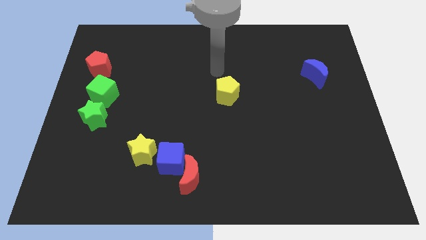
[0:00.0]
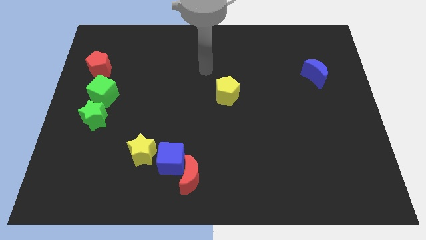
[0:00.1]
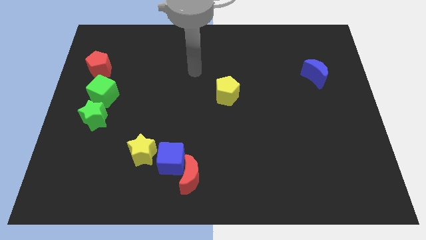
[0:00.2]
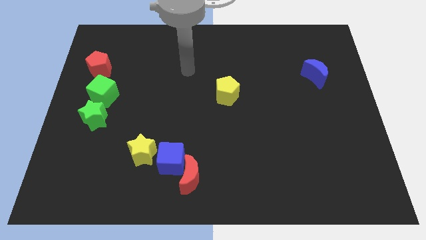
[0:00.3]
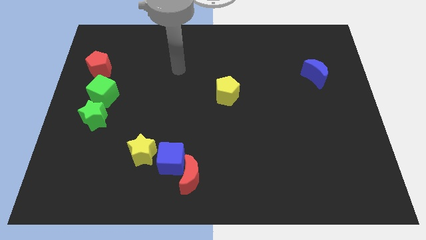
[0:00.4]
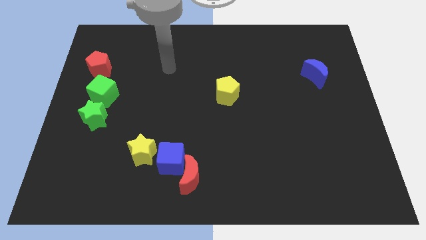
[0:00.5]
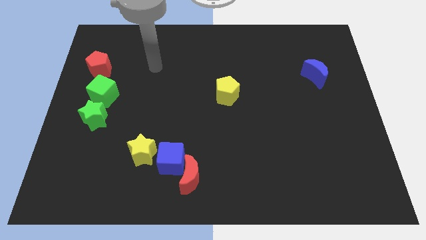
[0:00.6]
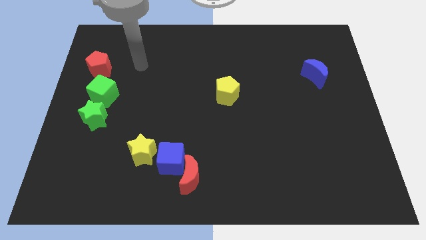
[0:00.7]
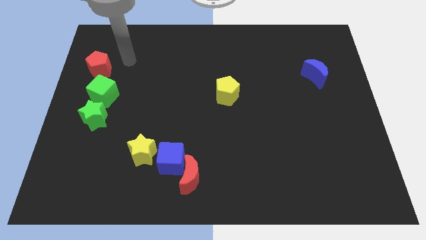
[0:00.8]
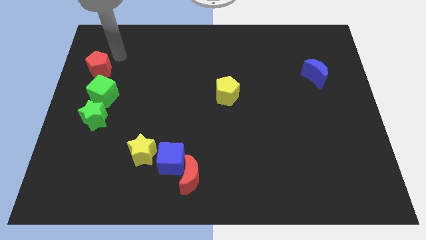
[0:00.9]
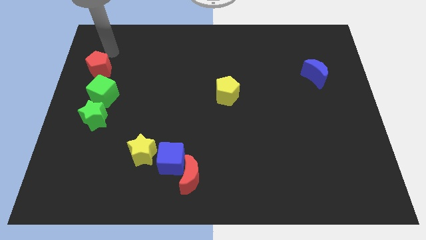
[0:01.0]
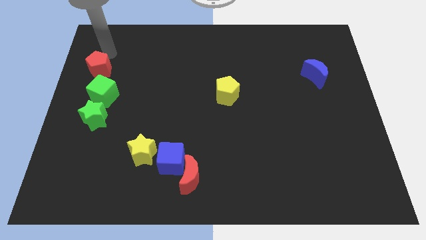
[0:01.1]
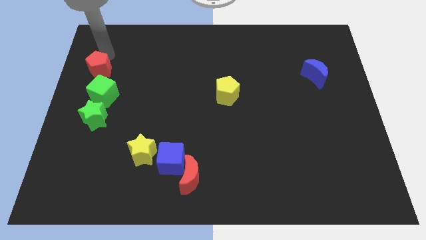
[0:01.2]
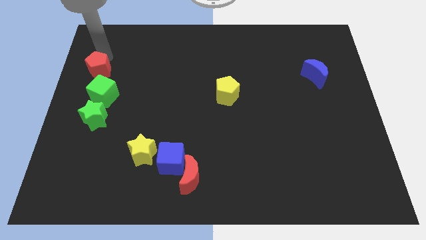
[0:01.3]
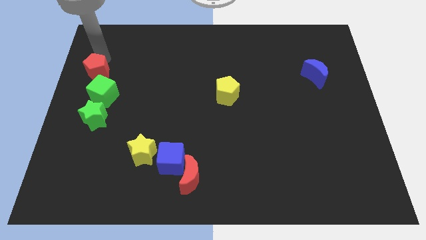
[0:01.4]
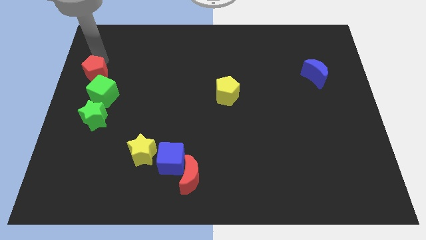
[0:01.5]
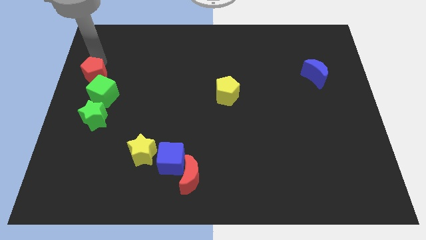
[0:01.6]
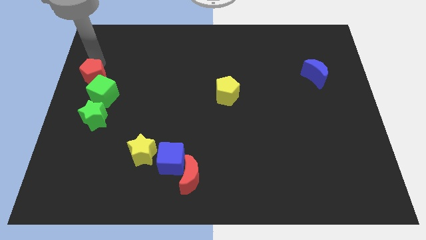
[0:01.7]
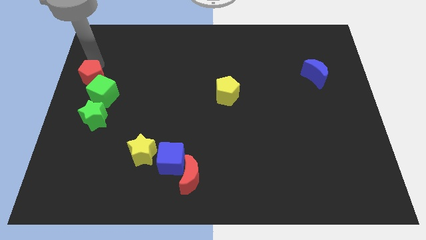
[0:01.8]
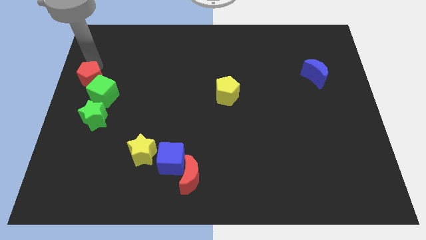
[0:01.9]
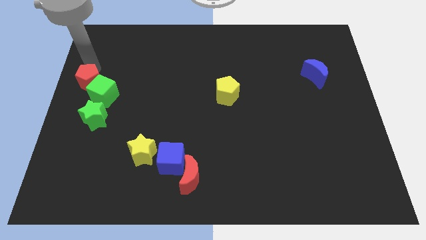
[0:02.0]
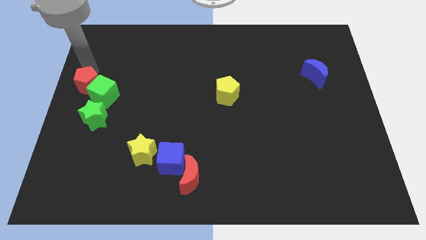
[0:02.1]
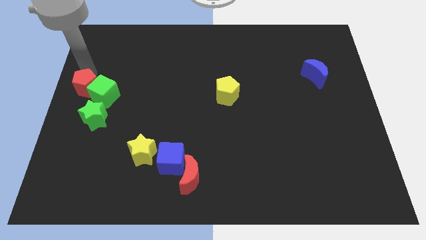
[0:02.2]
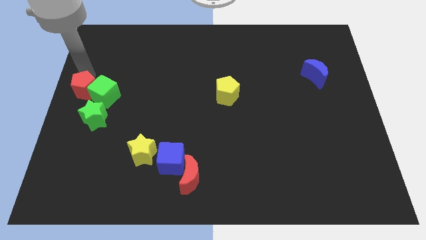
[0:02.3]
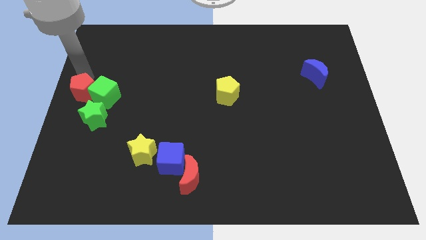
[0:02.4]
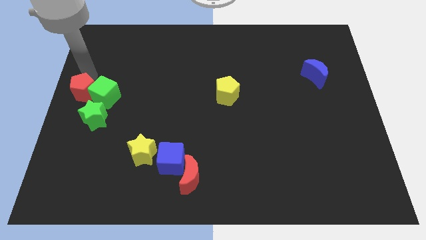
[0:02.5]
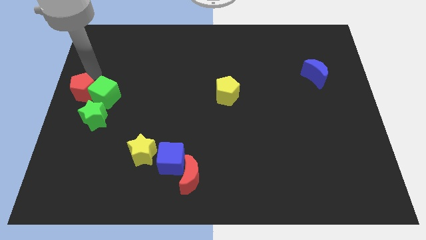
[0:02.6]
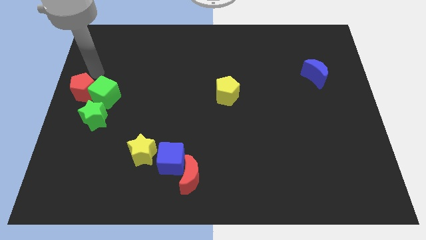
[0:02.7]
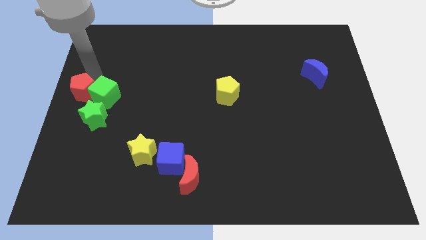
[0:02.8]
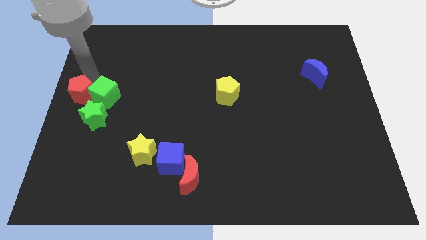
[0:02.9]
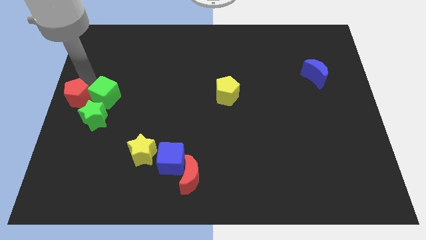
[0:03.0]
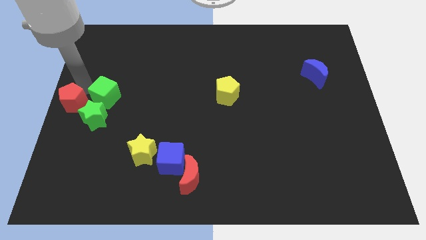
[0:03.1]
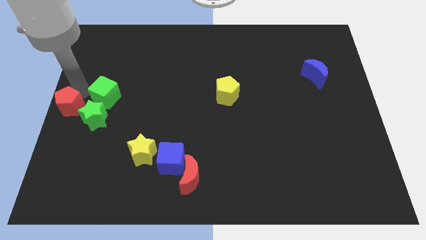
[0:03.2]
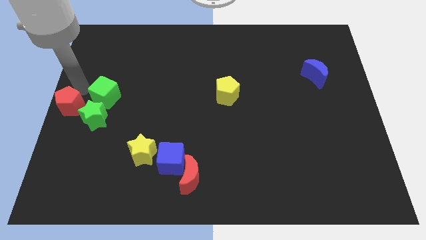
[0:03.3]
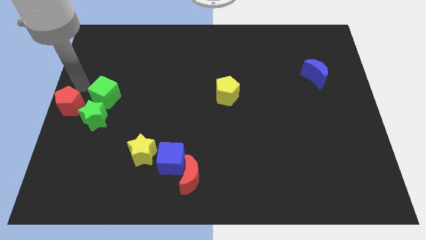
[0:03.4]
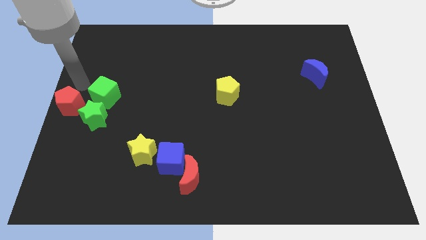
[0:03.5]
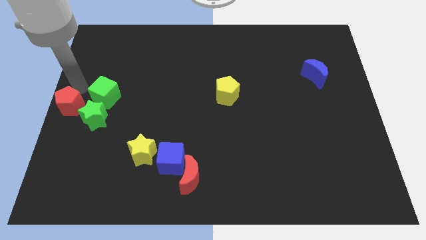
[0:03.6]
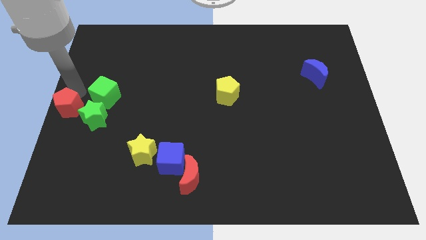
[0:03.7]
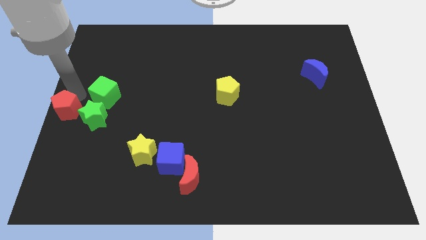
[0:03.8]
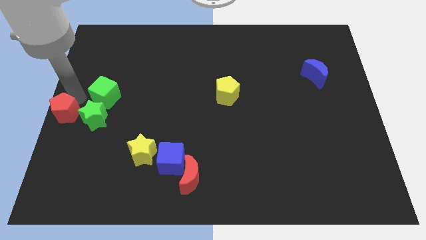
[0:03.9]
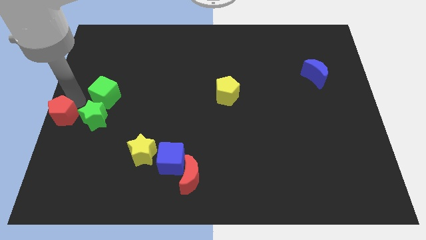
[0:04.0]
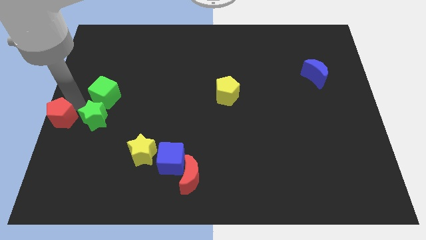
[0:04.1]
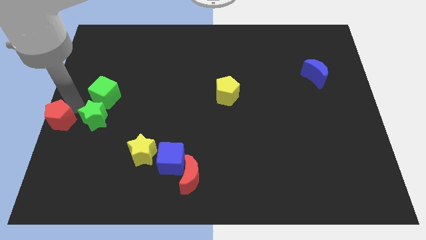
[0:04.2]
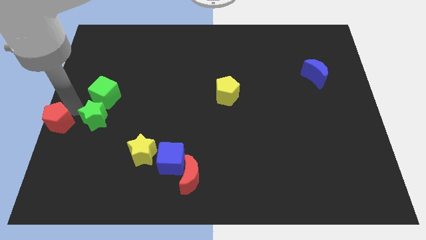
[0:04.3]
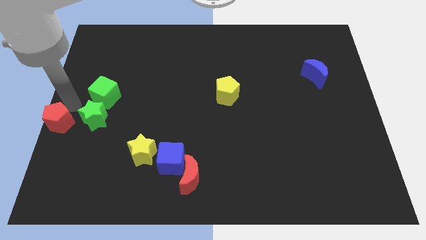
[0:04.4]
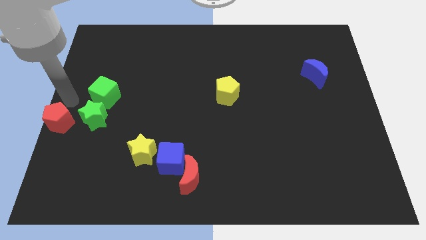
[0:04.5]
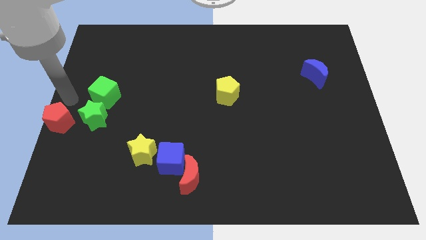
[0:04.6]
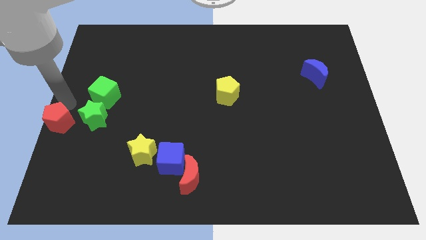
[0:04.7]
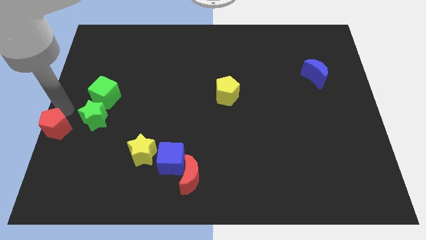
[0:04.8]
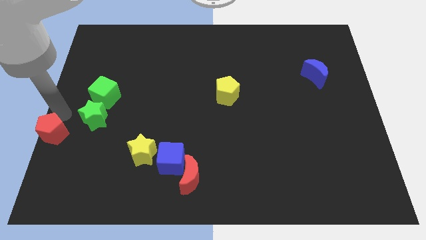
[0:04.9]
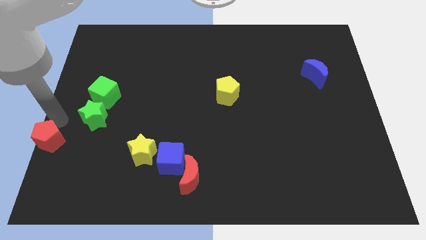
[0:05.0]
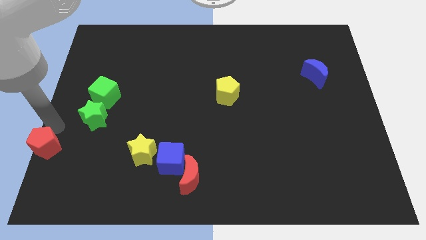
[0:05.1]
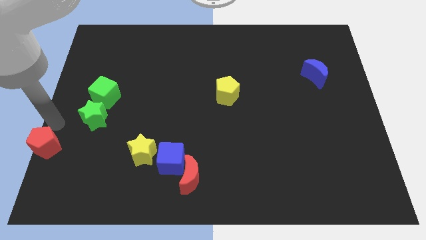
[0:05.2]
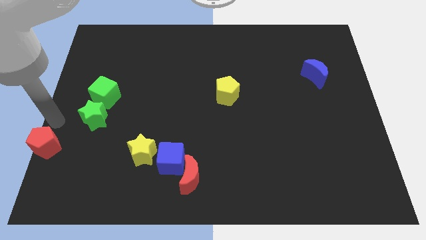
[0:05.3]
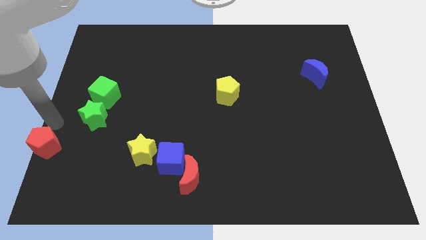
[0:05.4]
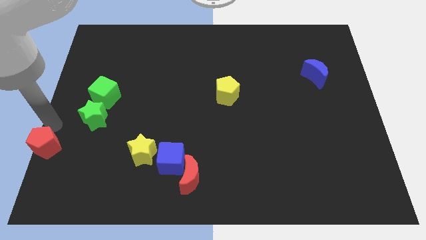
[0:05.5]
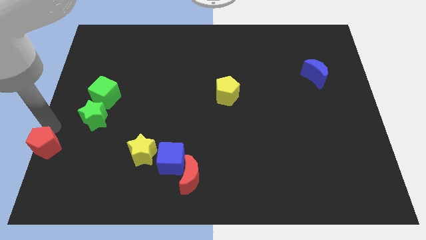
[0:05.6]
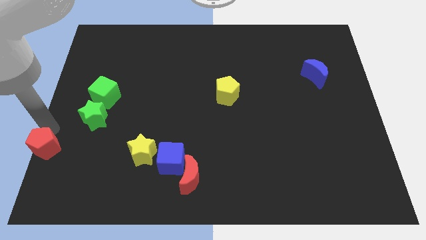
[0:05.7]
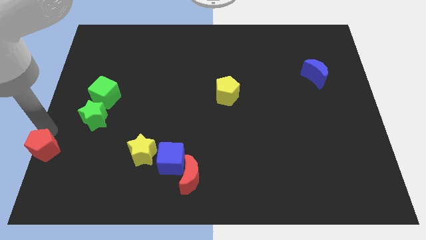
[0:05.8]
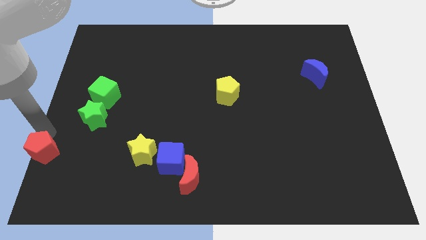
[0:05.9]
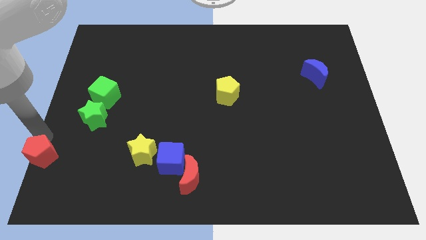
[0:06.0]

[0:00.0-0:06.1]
move the red pentagon to the bottom left
